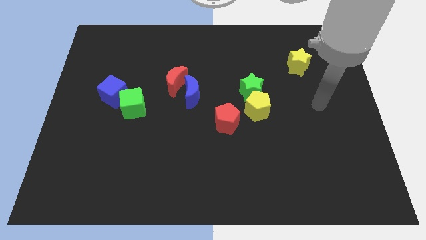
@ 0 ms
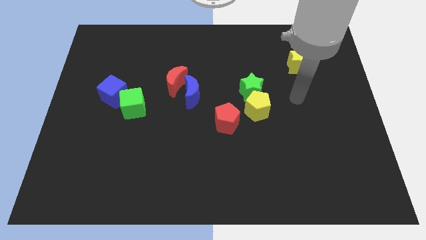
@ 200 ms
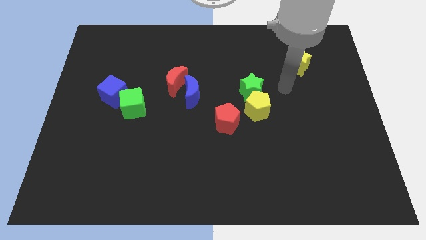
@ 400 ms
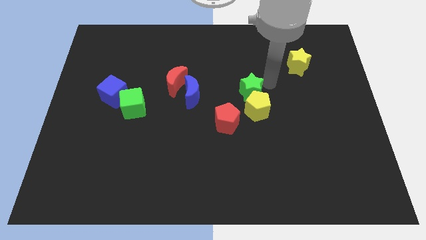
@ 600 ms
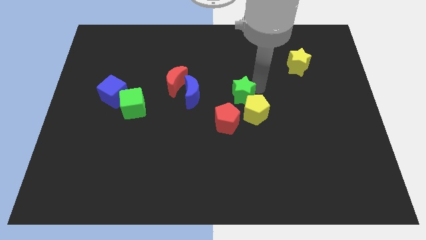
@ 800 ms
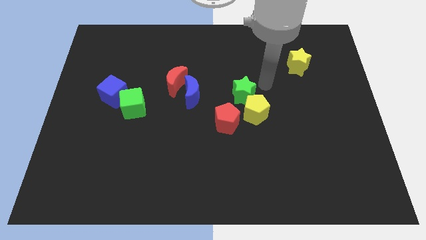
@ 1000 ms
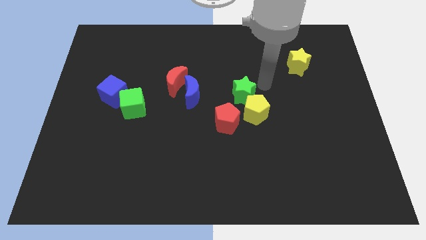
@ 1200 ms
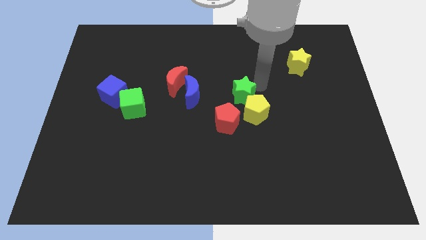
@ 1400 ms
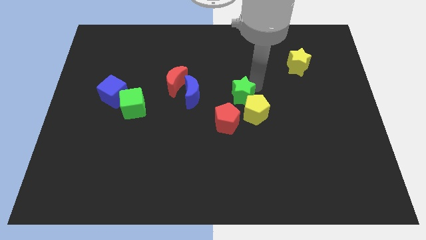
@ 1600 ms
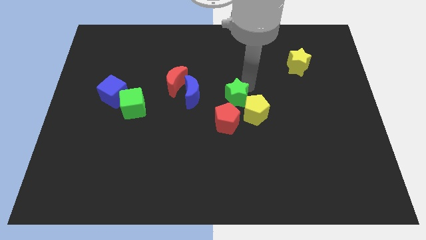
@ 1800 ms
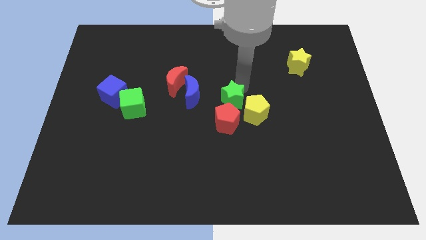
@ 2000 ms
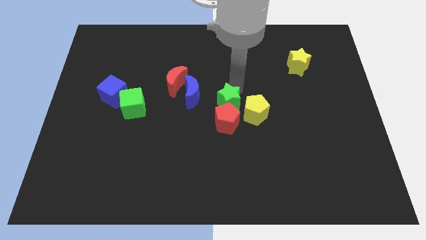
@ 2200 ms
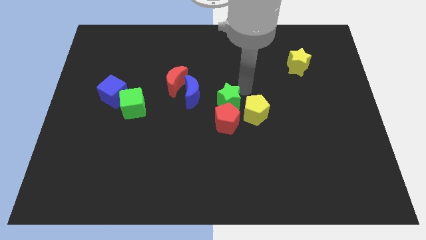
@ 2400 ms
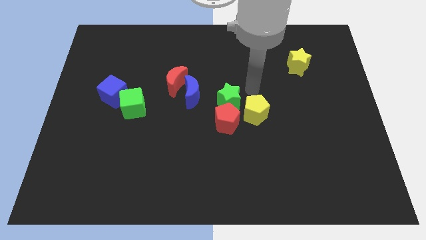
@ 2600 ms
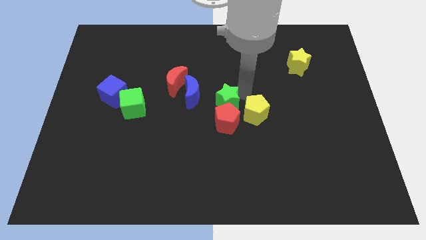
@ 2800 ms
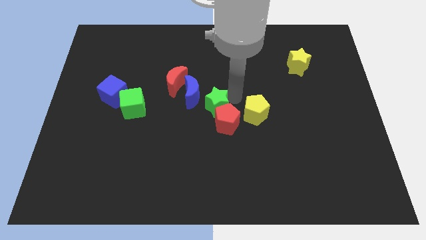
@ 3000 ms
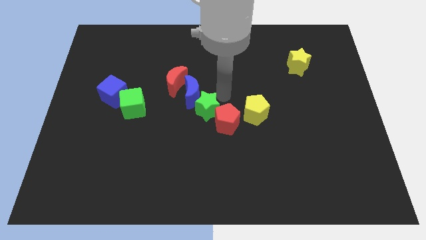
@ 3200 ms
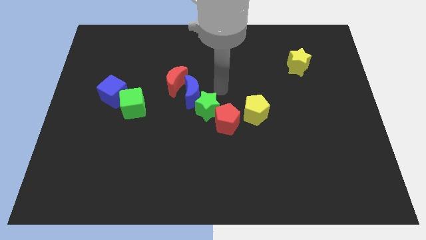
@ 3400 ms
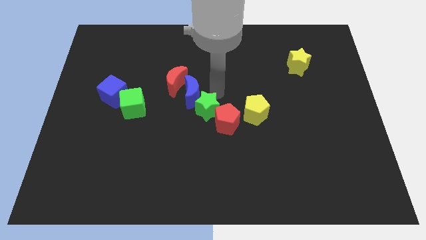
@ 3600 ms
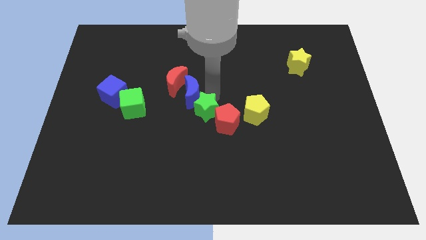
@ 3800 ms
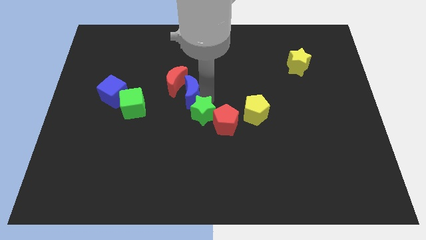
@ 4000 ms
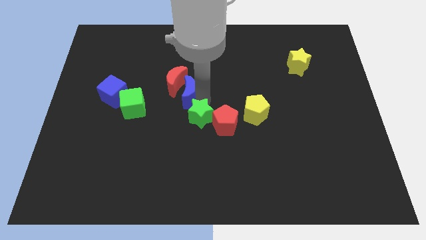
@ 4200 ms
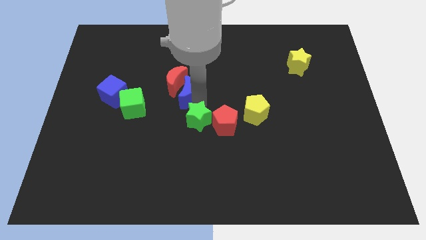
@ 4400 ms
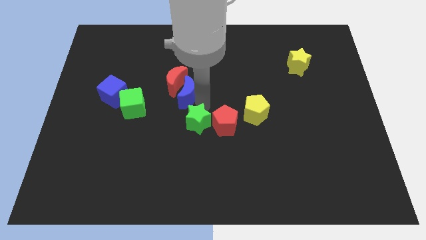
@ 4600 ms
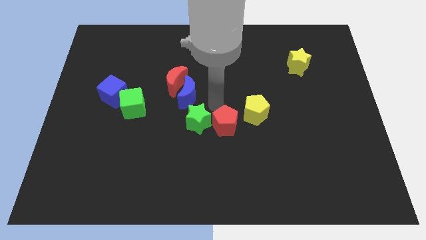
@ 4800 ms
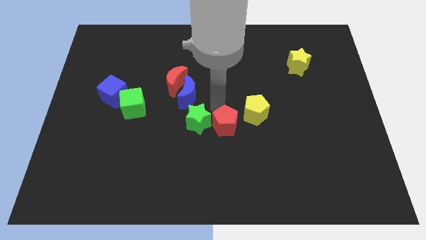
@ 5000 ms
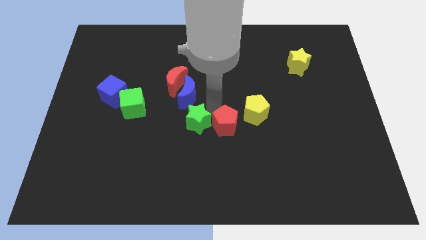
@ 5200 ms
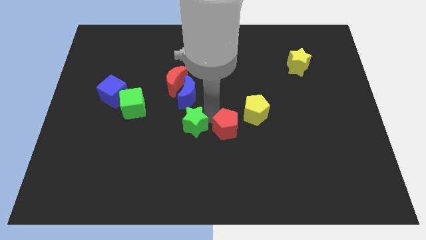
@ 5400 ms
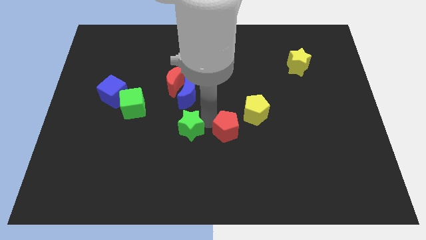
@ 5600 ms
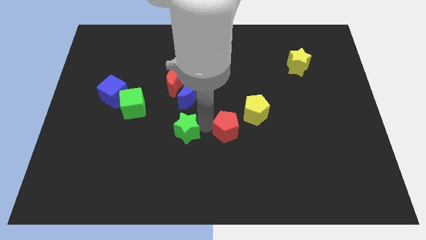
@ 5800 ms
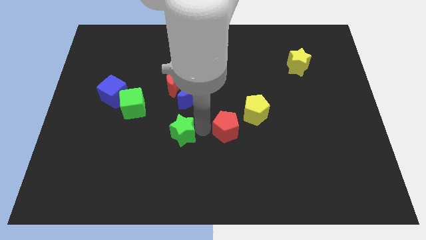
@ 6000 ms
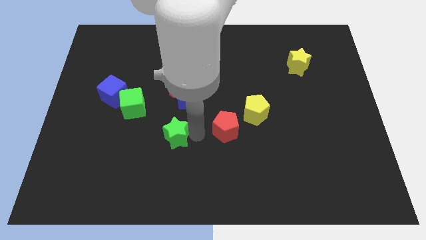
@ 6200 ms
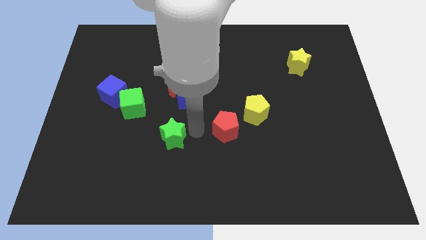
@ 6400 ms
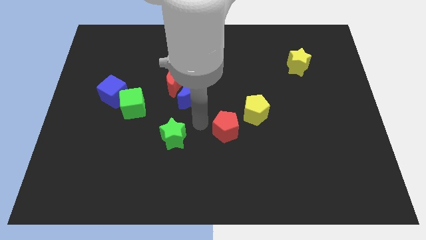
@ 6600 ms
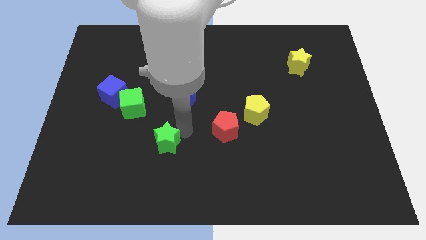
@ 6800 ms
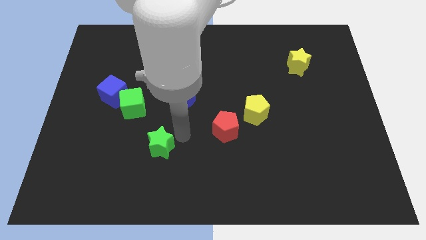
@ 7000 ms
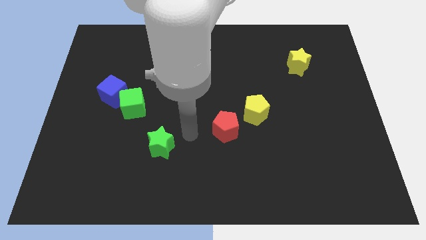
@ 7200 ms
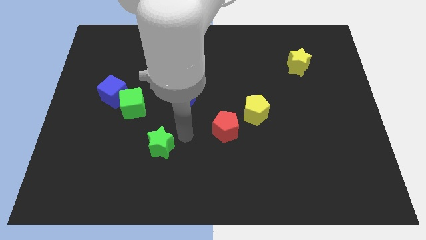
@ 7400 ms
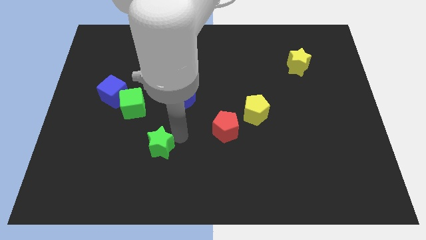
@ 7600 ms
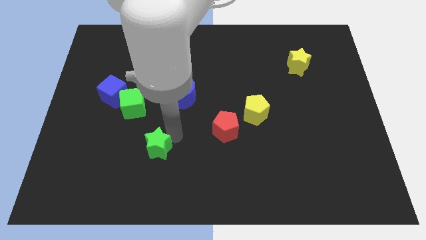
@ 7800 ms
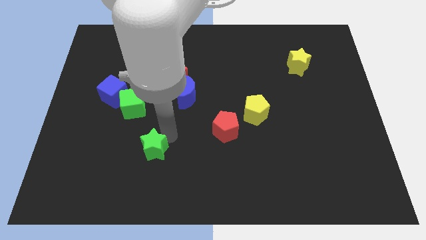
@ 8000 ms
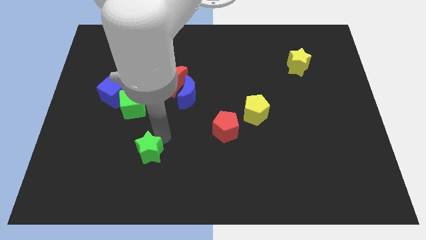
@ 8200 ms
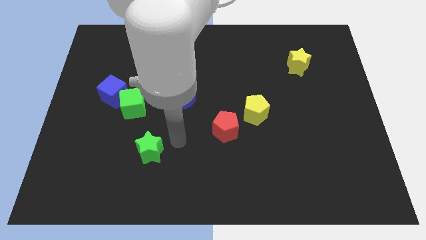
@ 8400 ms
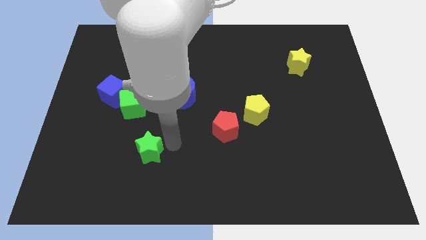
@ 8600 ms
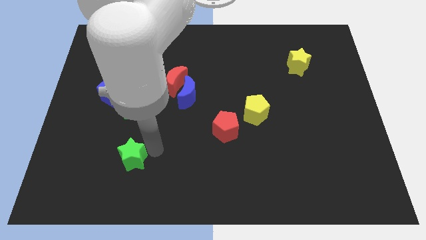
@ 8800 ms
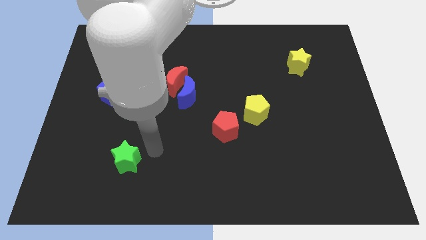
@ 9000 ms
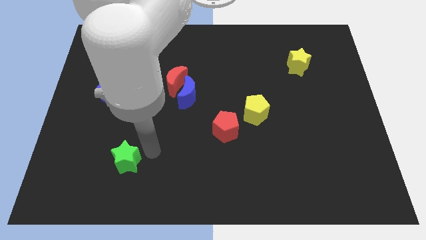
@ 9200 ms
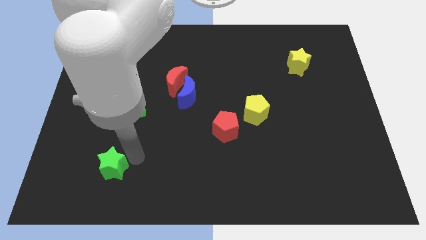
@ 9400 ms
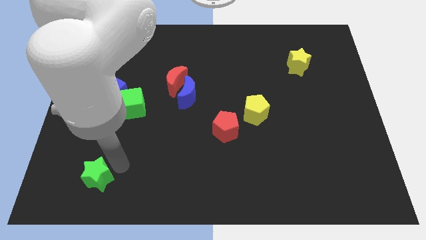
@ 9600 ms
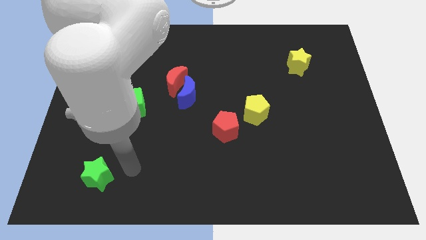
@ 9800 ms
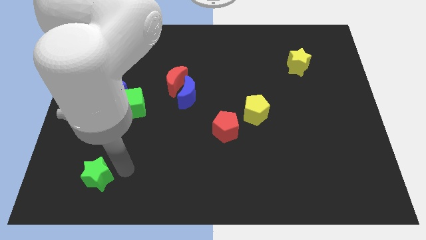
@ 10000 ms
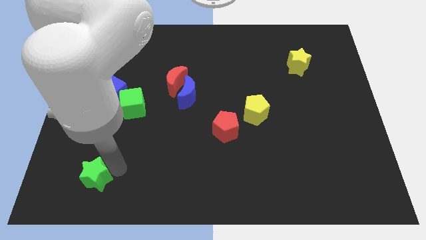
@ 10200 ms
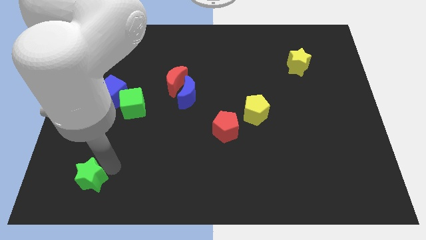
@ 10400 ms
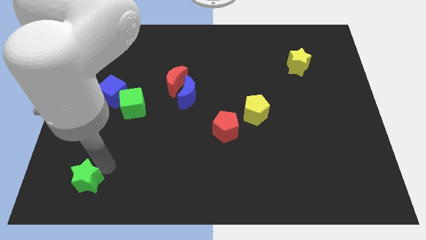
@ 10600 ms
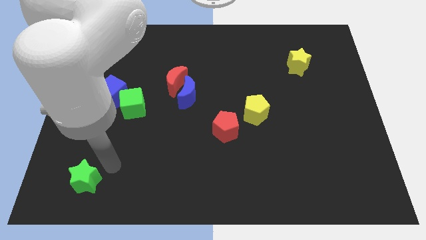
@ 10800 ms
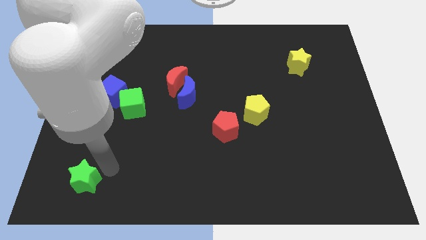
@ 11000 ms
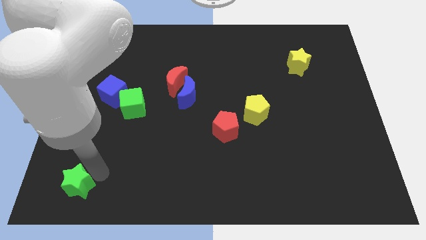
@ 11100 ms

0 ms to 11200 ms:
move the green star to the bottom left of the board

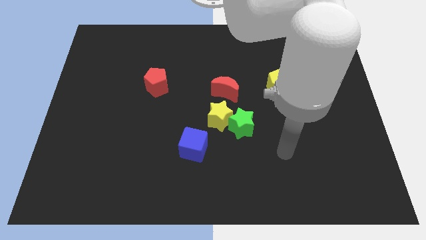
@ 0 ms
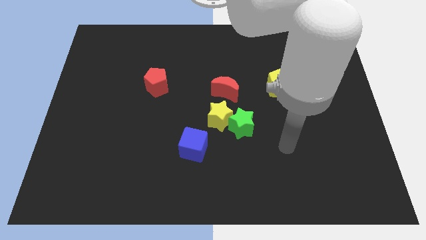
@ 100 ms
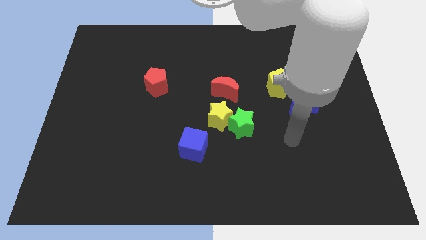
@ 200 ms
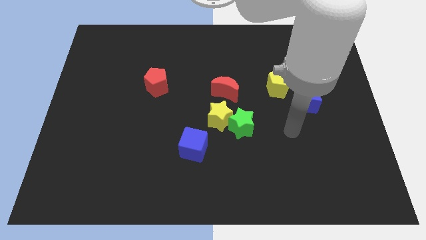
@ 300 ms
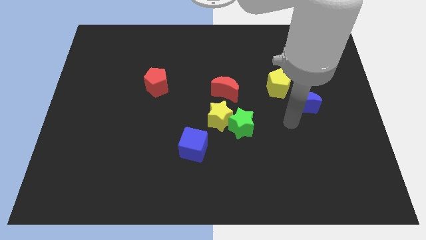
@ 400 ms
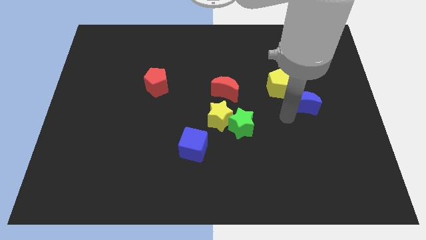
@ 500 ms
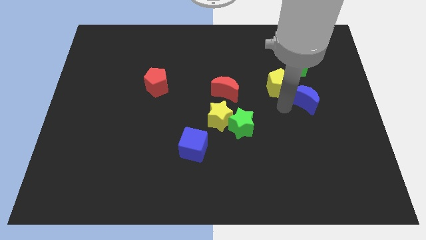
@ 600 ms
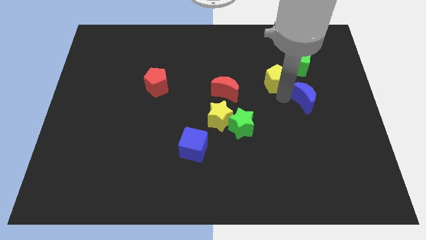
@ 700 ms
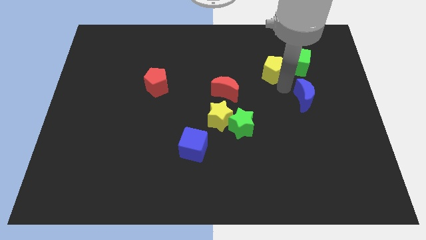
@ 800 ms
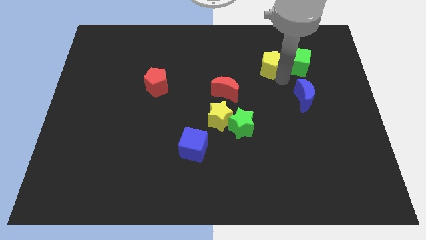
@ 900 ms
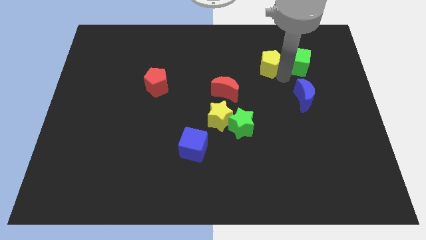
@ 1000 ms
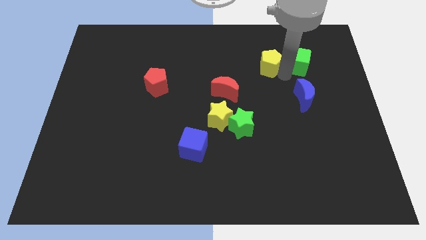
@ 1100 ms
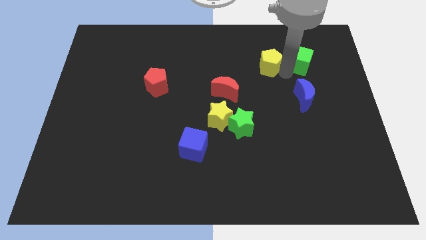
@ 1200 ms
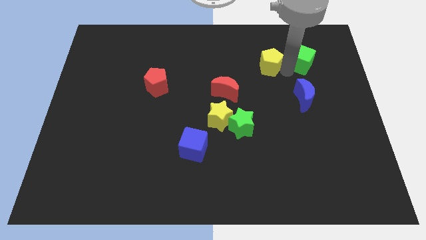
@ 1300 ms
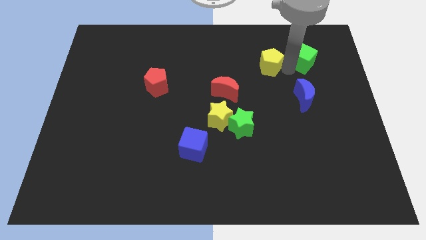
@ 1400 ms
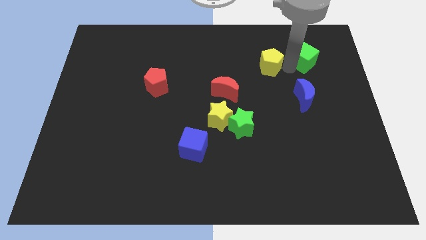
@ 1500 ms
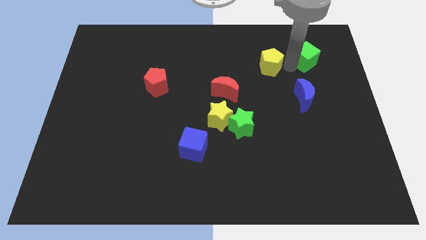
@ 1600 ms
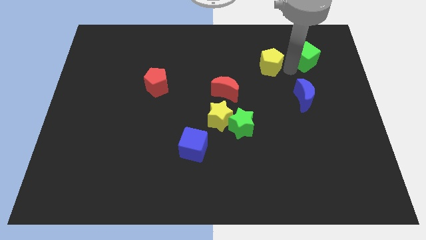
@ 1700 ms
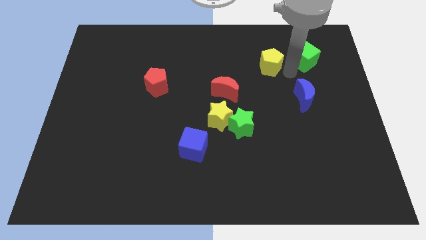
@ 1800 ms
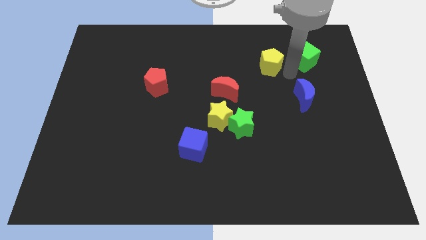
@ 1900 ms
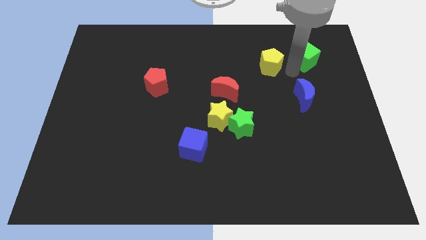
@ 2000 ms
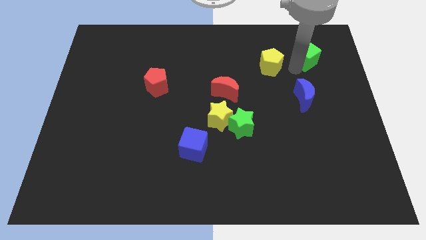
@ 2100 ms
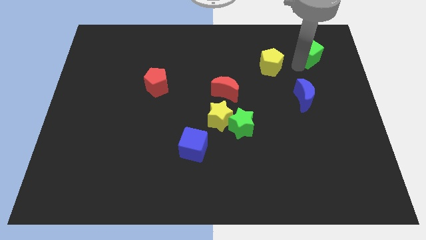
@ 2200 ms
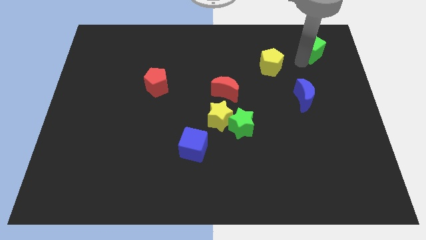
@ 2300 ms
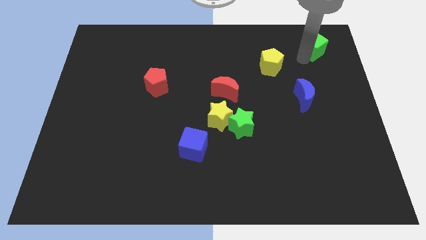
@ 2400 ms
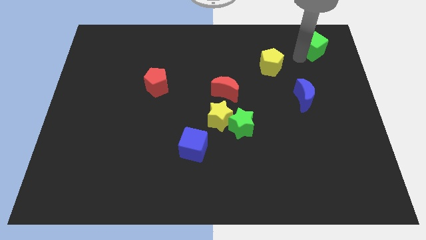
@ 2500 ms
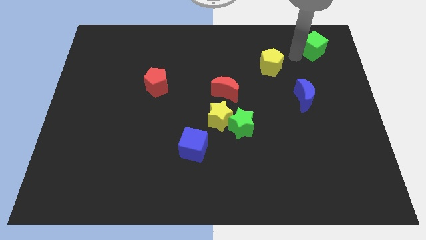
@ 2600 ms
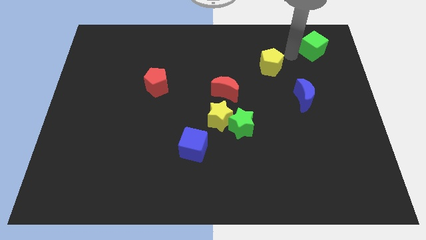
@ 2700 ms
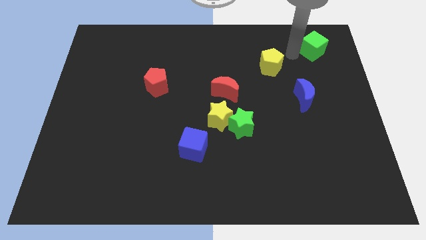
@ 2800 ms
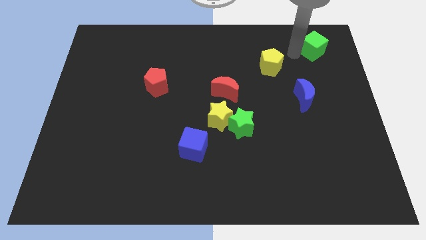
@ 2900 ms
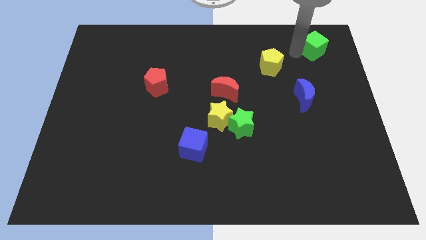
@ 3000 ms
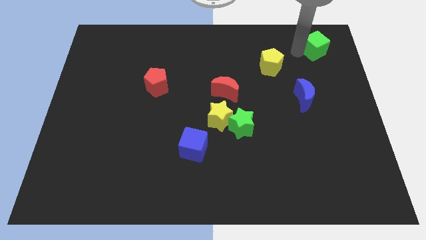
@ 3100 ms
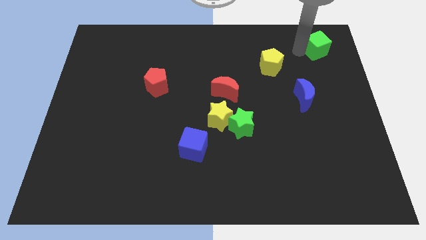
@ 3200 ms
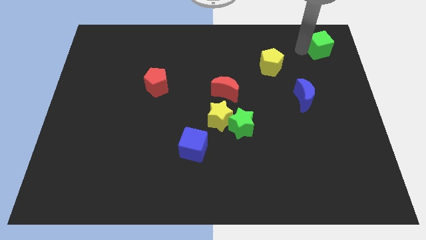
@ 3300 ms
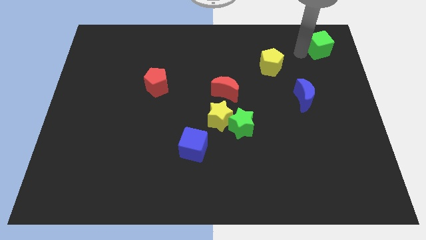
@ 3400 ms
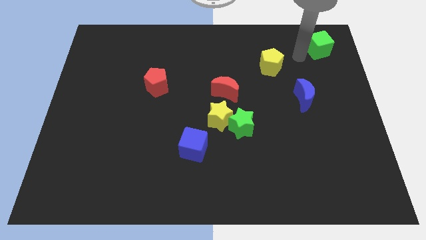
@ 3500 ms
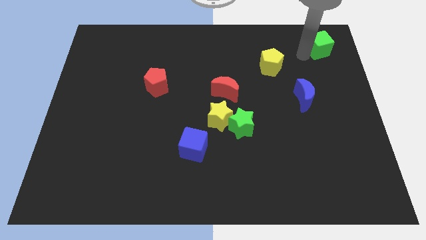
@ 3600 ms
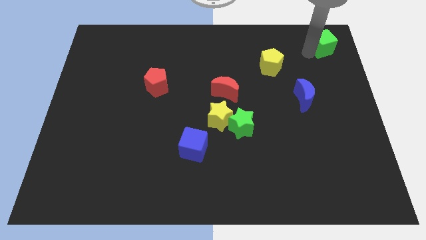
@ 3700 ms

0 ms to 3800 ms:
slide the green cube to the top right of the board
